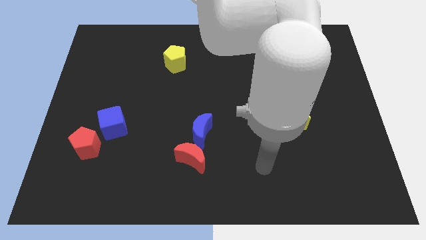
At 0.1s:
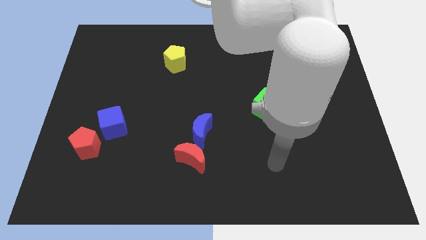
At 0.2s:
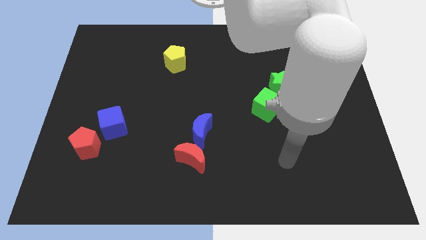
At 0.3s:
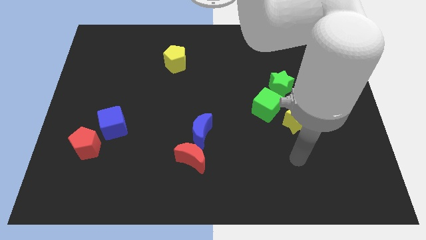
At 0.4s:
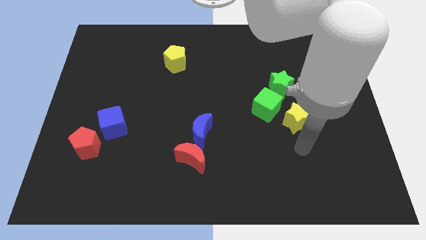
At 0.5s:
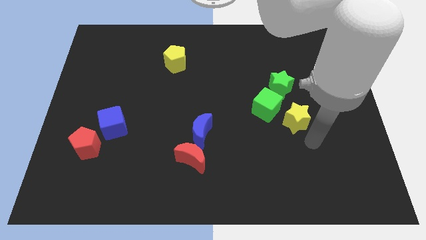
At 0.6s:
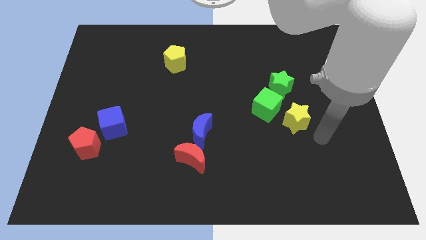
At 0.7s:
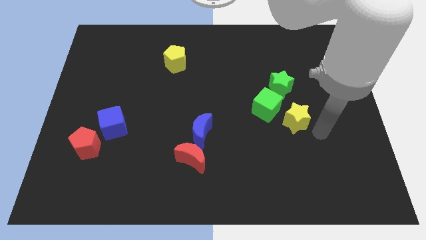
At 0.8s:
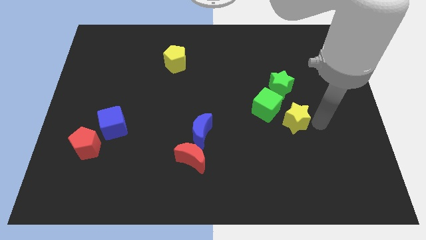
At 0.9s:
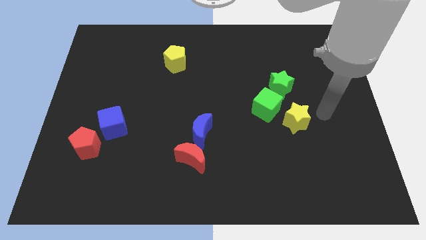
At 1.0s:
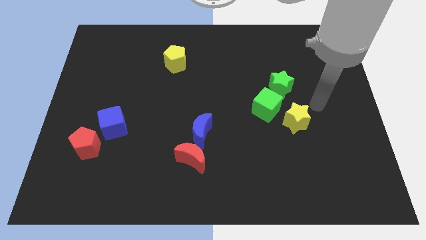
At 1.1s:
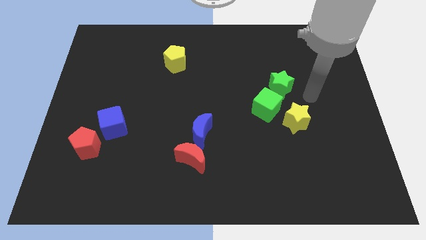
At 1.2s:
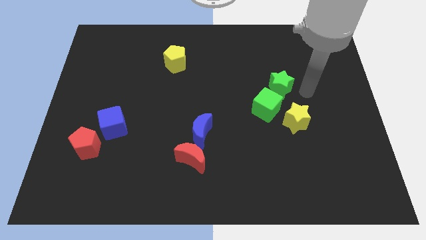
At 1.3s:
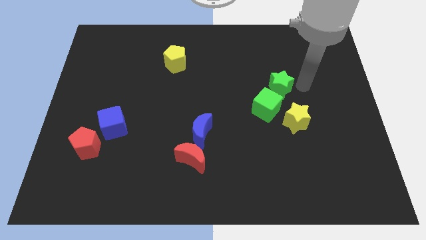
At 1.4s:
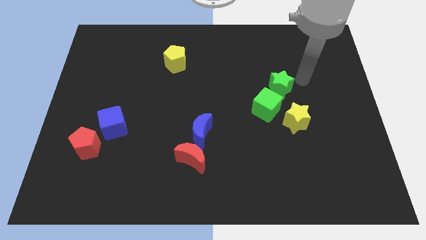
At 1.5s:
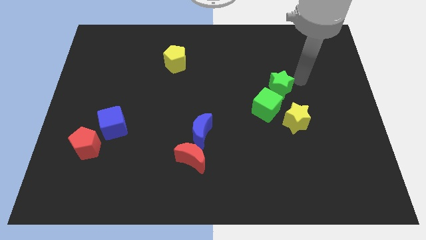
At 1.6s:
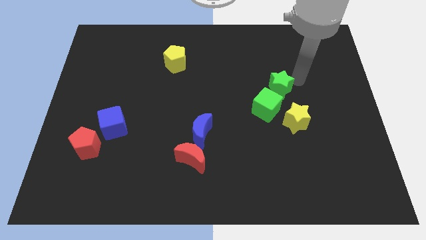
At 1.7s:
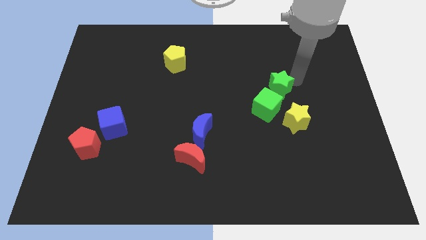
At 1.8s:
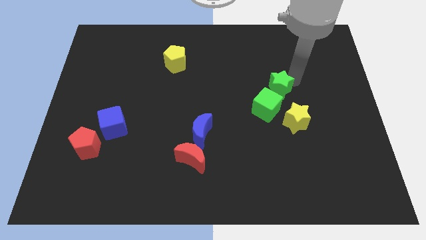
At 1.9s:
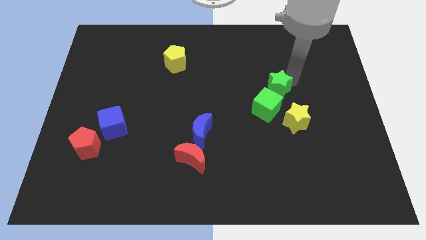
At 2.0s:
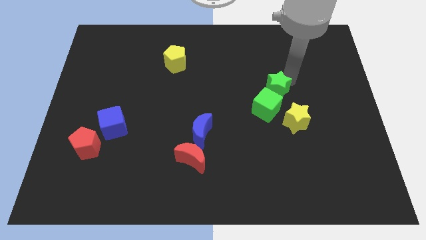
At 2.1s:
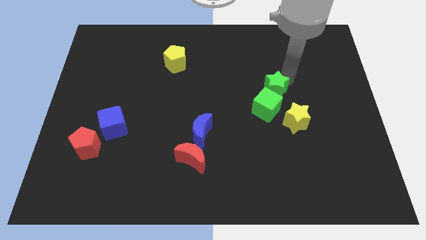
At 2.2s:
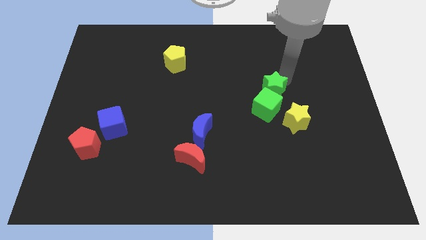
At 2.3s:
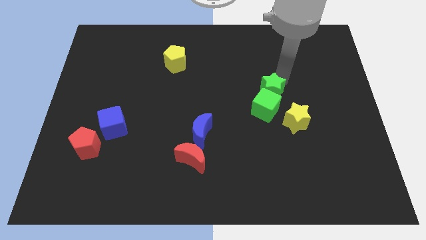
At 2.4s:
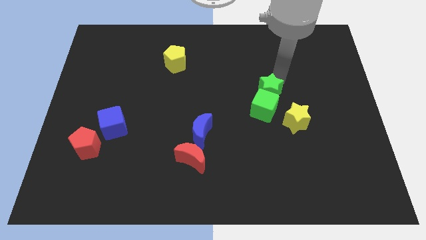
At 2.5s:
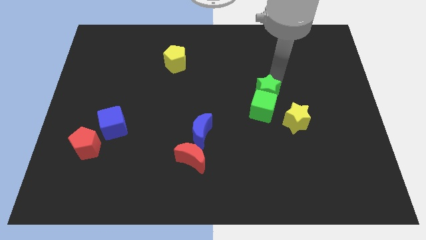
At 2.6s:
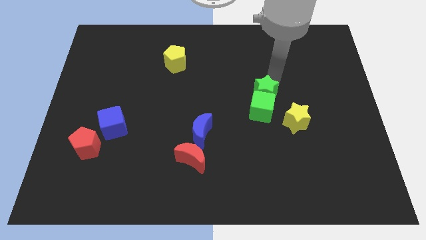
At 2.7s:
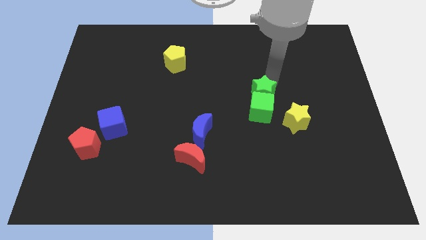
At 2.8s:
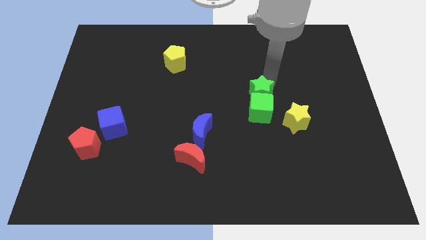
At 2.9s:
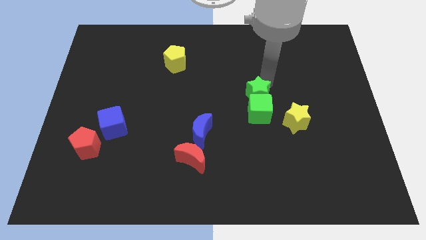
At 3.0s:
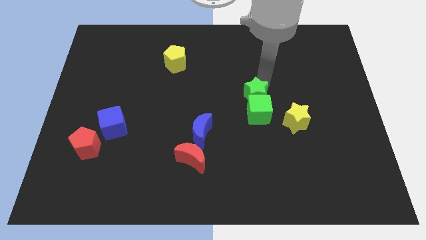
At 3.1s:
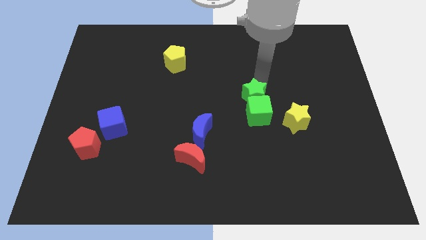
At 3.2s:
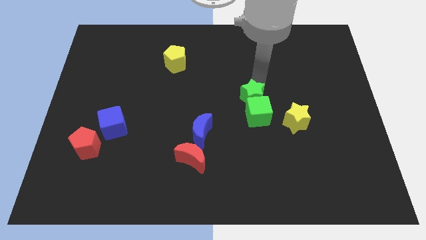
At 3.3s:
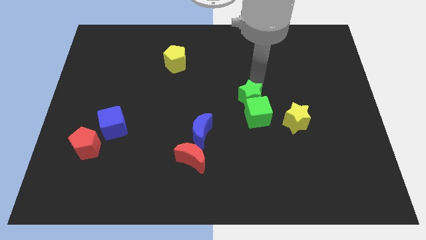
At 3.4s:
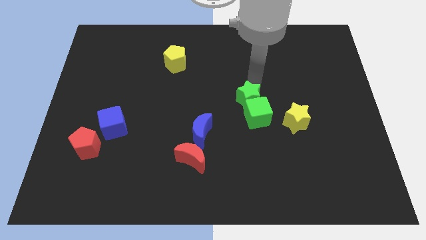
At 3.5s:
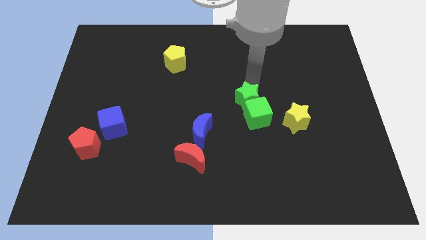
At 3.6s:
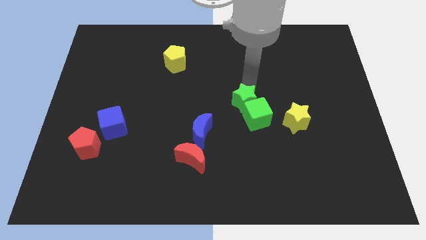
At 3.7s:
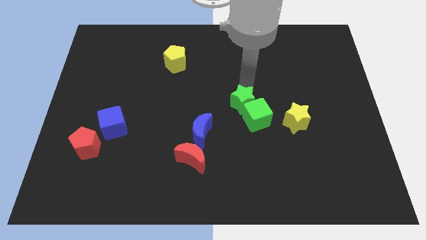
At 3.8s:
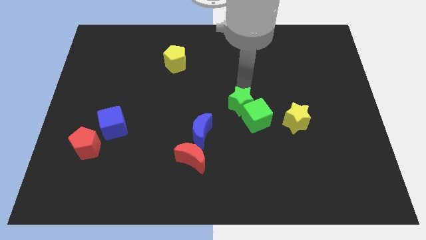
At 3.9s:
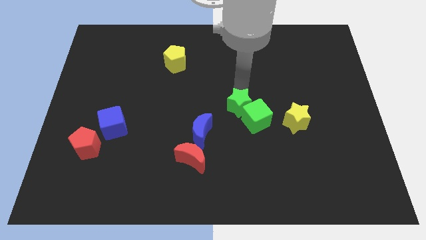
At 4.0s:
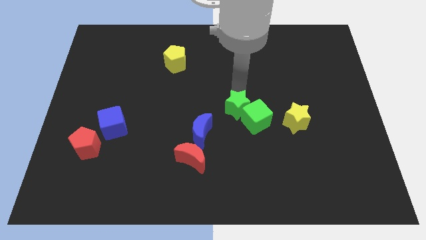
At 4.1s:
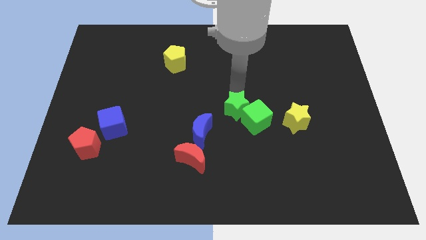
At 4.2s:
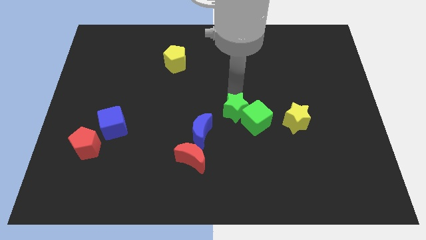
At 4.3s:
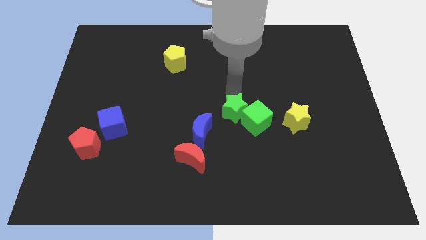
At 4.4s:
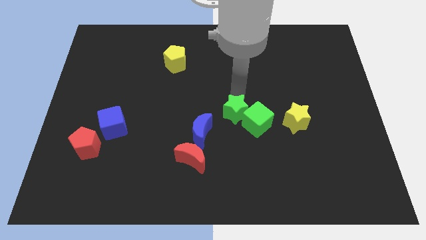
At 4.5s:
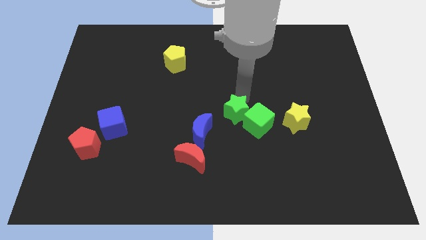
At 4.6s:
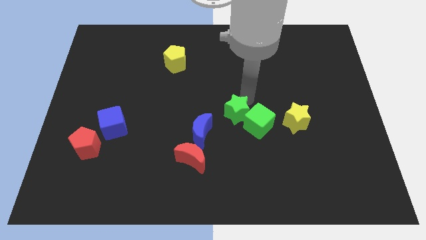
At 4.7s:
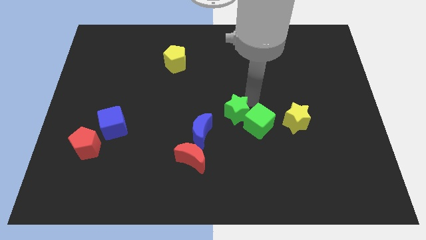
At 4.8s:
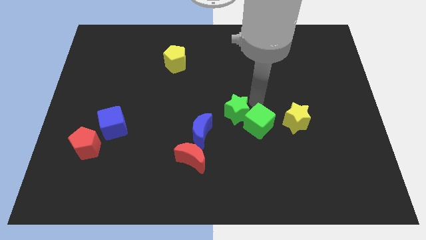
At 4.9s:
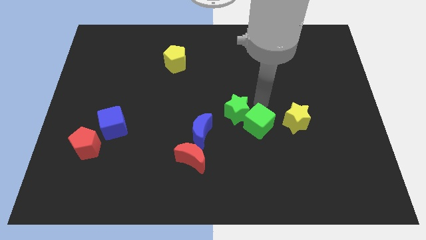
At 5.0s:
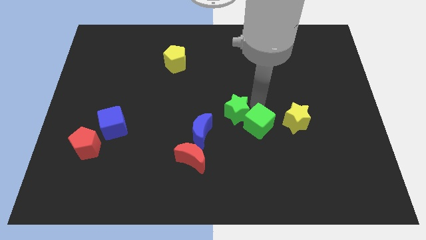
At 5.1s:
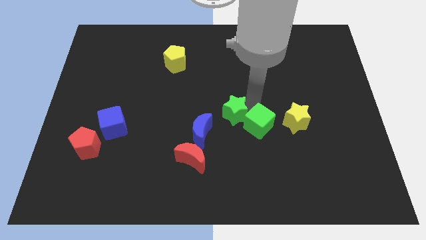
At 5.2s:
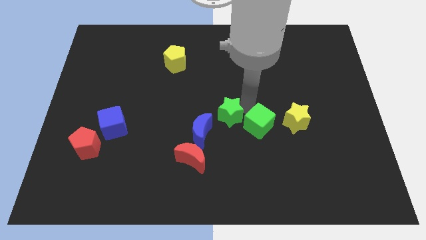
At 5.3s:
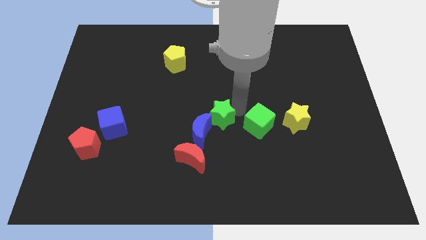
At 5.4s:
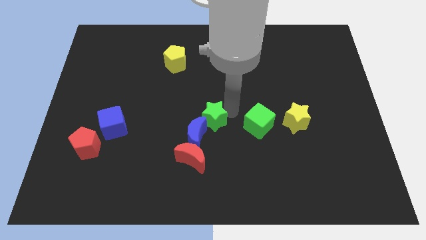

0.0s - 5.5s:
push the green star next to the blue moon

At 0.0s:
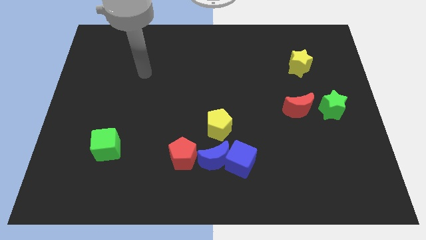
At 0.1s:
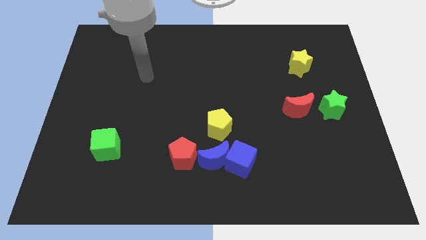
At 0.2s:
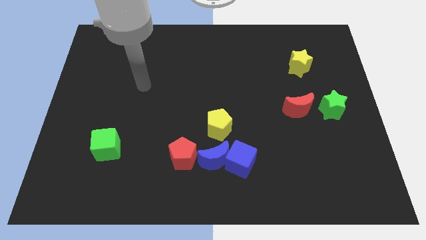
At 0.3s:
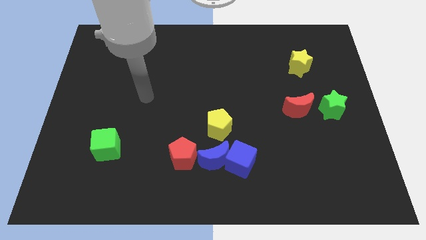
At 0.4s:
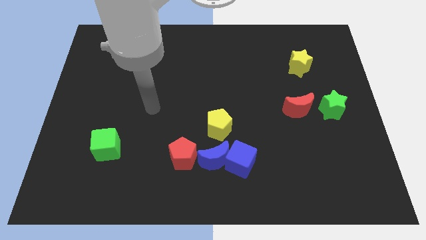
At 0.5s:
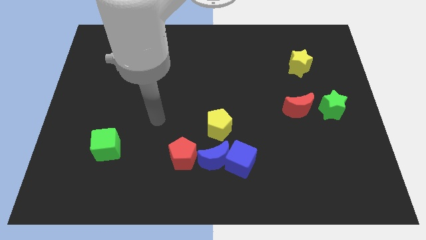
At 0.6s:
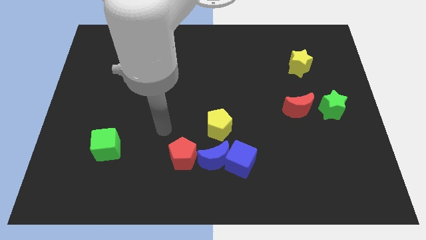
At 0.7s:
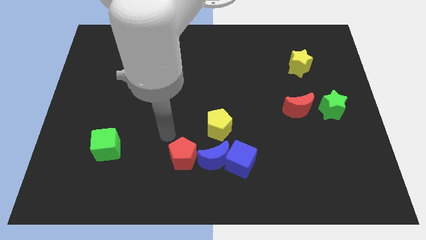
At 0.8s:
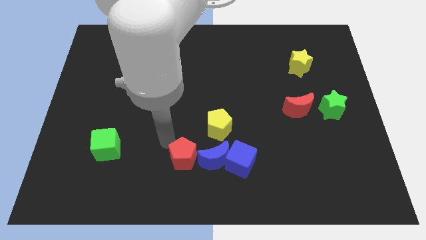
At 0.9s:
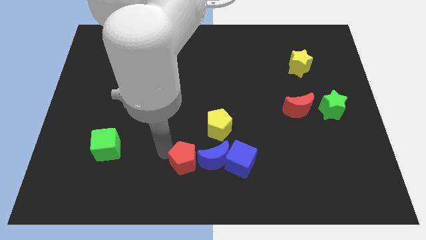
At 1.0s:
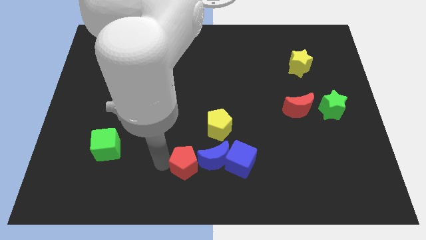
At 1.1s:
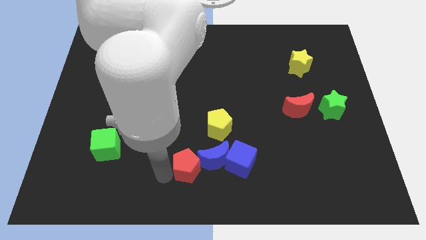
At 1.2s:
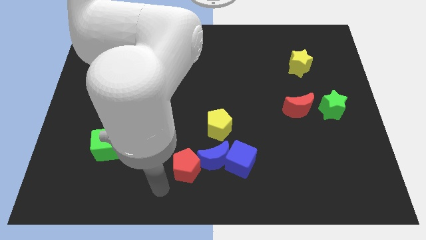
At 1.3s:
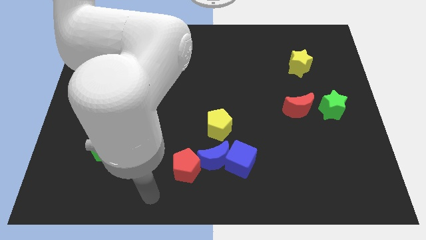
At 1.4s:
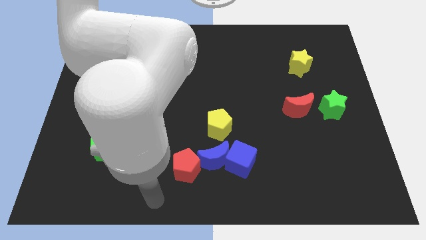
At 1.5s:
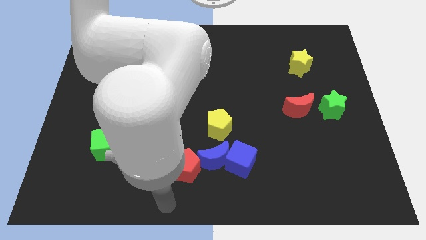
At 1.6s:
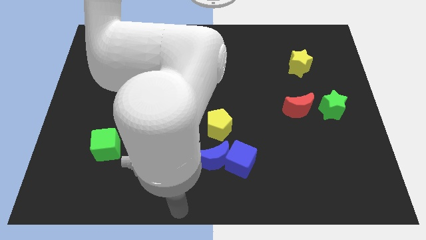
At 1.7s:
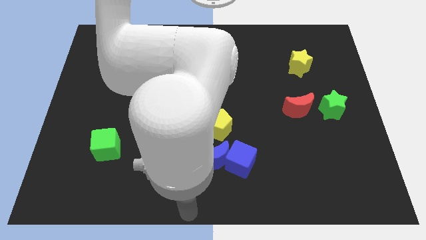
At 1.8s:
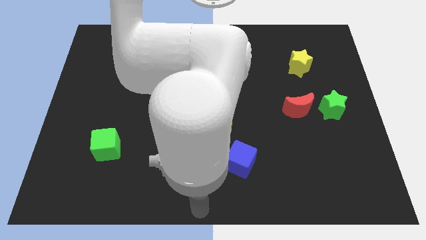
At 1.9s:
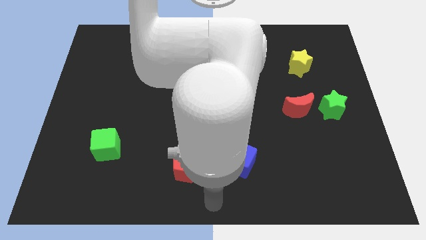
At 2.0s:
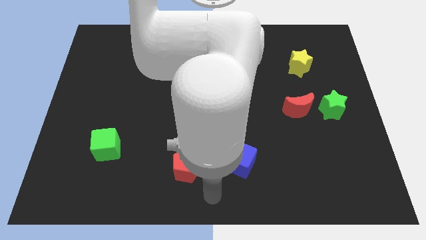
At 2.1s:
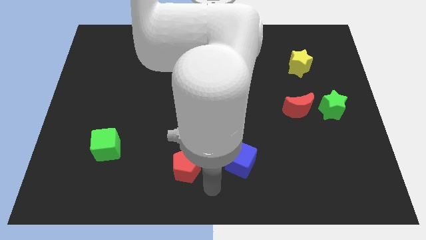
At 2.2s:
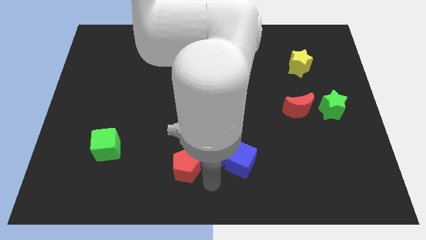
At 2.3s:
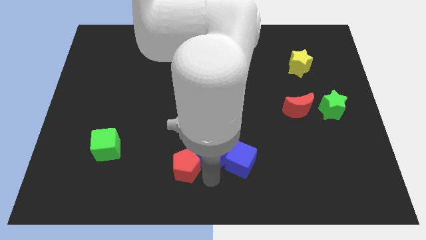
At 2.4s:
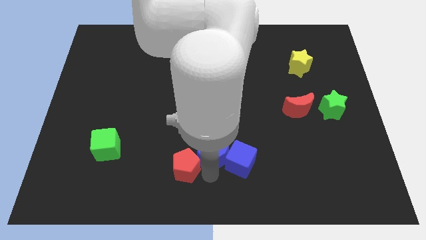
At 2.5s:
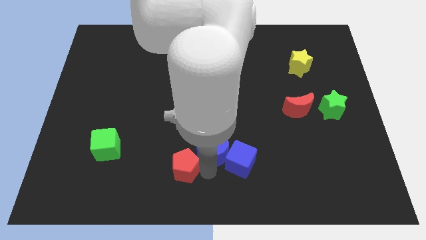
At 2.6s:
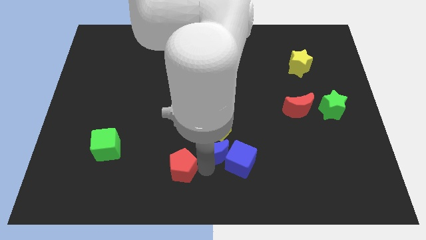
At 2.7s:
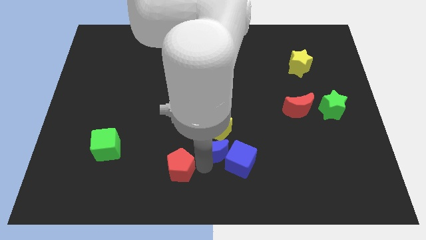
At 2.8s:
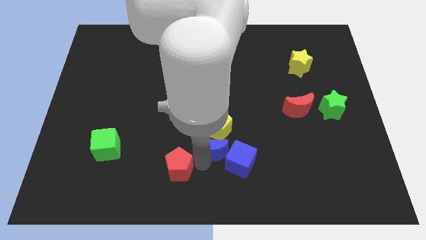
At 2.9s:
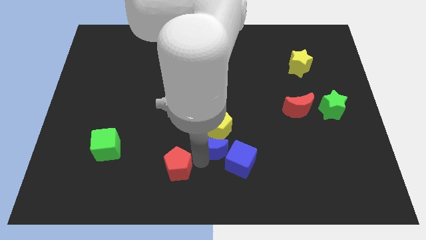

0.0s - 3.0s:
put the blue moon towards the yellow pentagon
